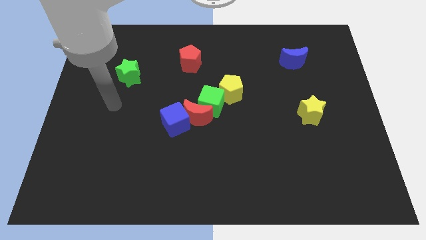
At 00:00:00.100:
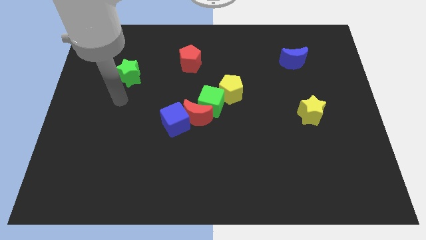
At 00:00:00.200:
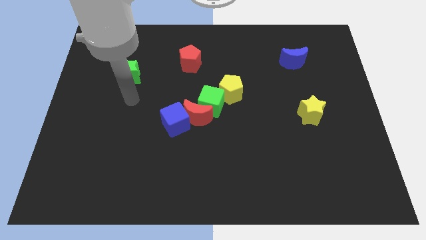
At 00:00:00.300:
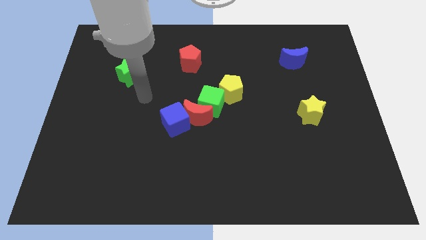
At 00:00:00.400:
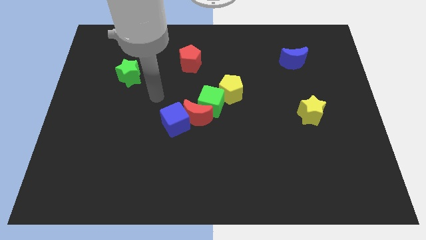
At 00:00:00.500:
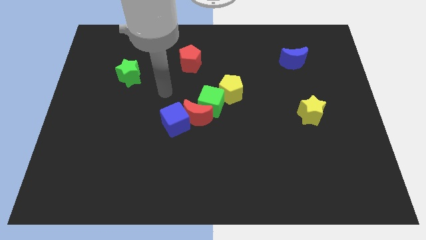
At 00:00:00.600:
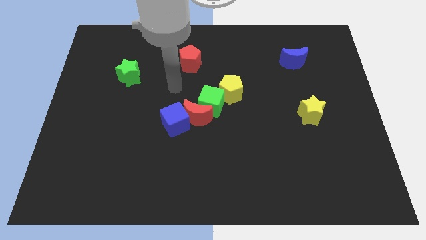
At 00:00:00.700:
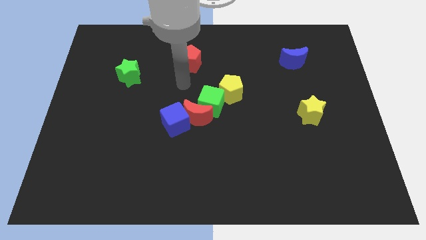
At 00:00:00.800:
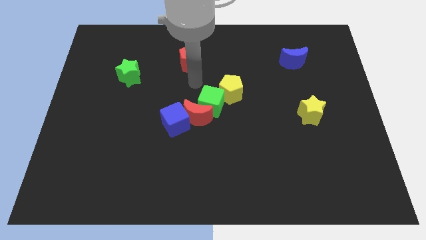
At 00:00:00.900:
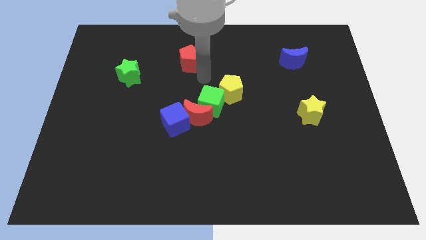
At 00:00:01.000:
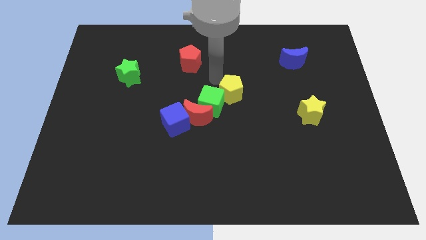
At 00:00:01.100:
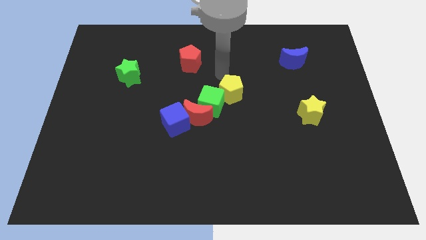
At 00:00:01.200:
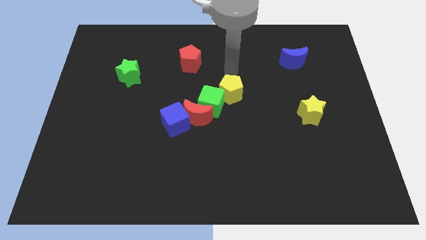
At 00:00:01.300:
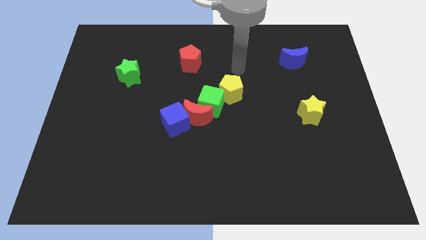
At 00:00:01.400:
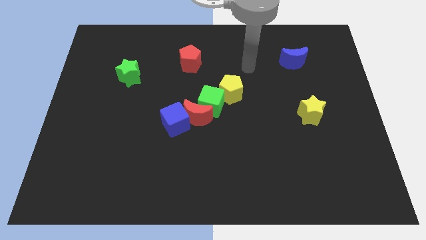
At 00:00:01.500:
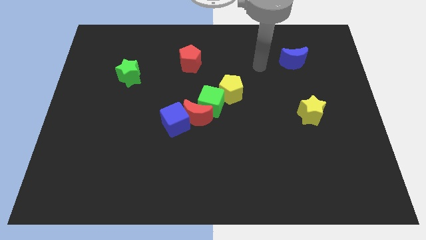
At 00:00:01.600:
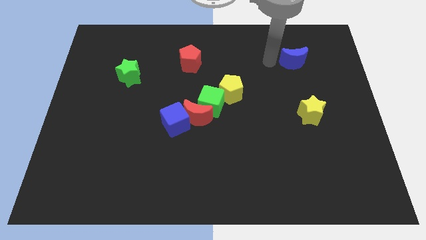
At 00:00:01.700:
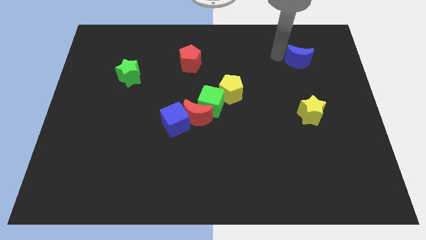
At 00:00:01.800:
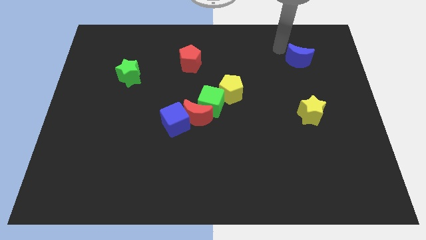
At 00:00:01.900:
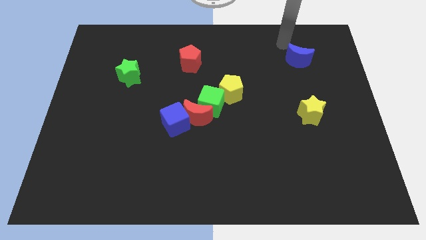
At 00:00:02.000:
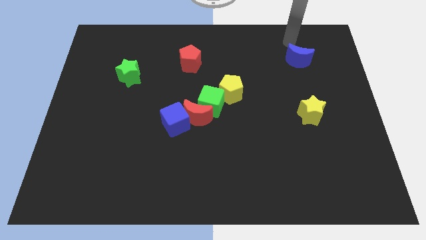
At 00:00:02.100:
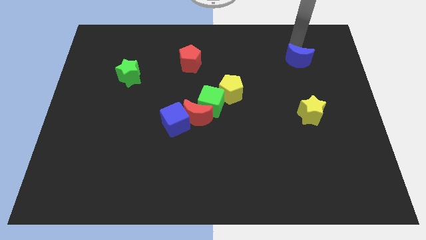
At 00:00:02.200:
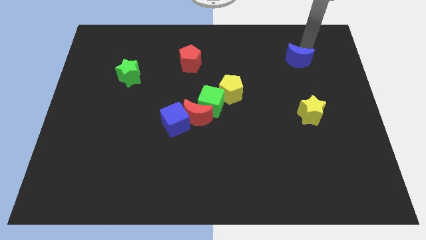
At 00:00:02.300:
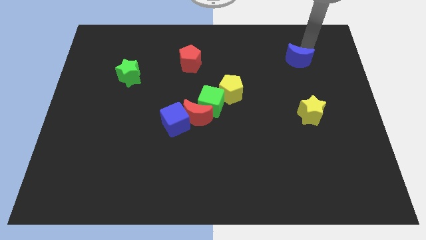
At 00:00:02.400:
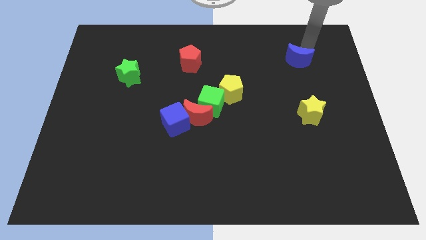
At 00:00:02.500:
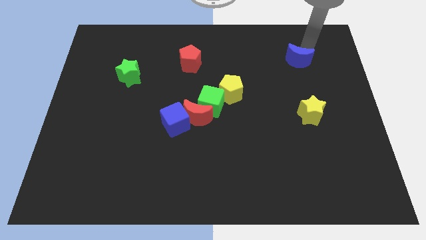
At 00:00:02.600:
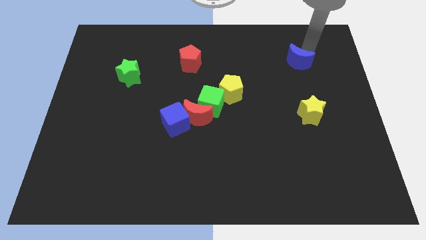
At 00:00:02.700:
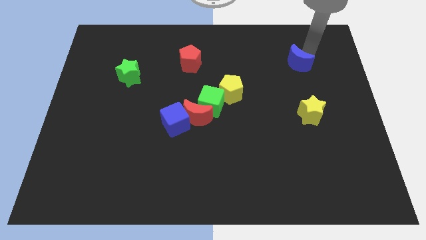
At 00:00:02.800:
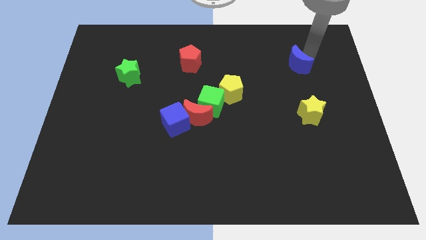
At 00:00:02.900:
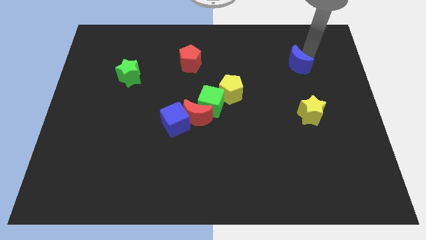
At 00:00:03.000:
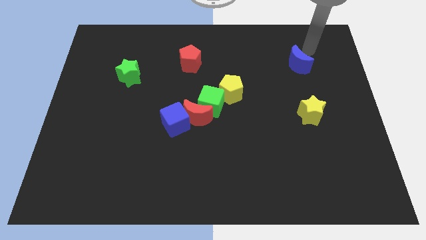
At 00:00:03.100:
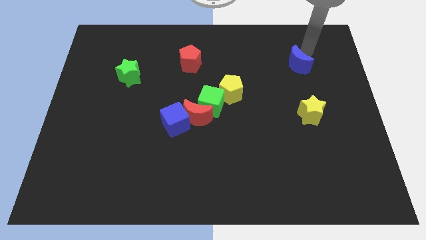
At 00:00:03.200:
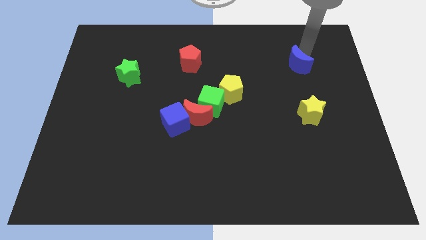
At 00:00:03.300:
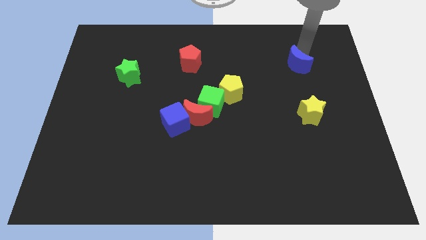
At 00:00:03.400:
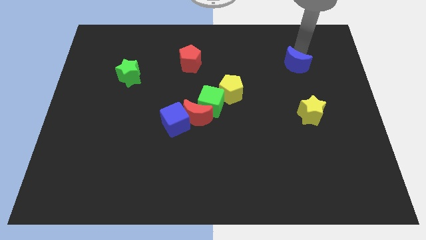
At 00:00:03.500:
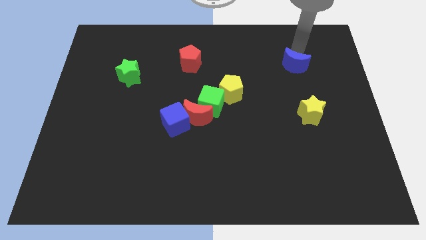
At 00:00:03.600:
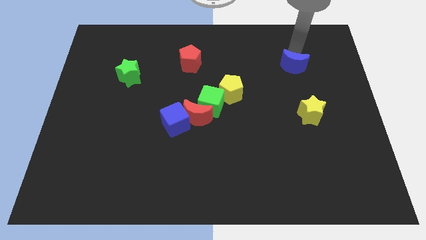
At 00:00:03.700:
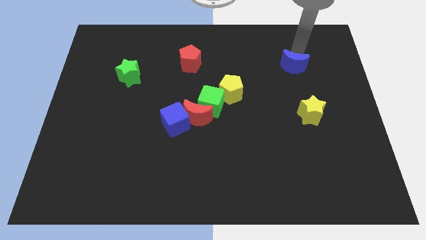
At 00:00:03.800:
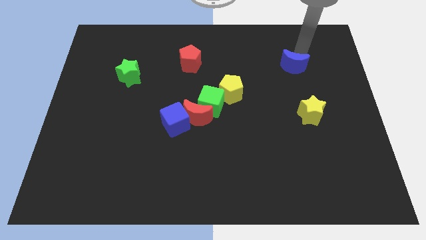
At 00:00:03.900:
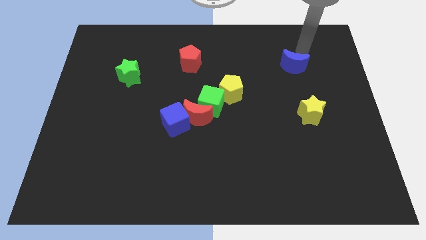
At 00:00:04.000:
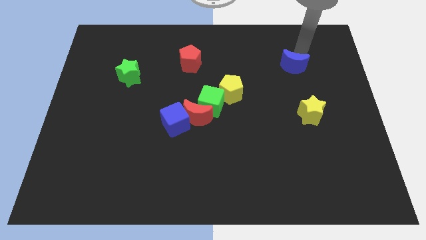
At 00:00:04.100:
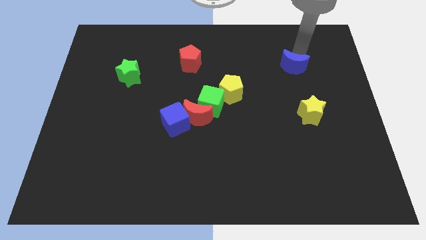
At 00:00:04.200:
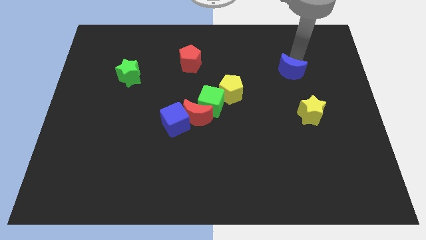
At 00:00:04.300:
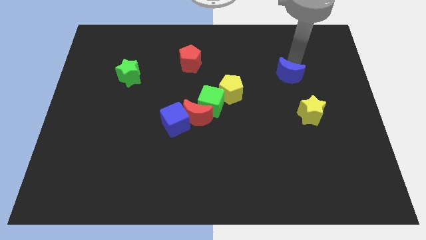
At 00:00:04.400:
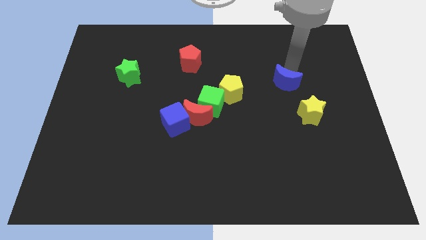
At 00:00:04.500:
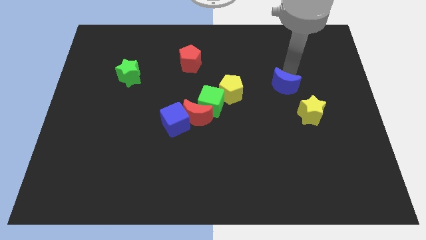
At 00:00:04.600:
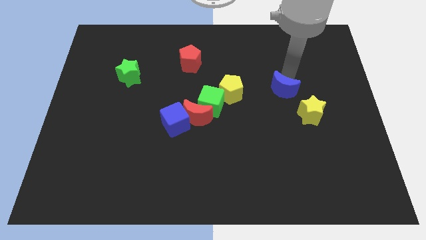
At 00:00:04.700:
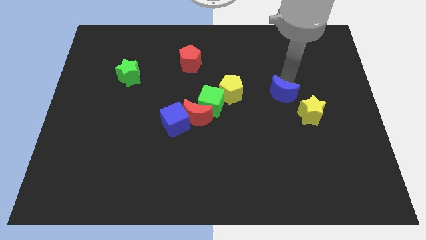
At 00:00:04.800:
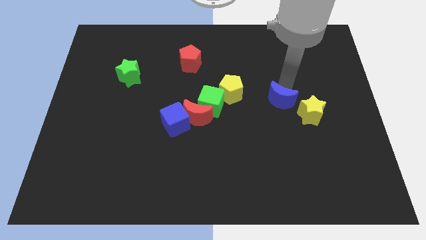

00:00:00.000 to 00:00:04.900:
put the blue moon to the left side of the yellow star

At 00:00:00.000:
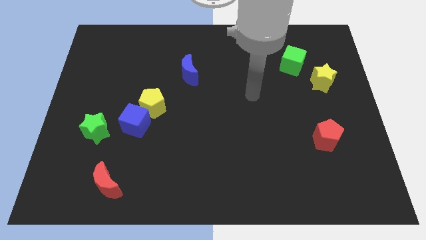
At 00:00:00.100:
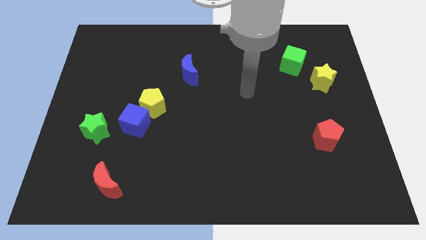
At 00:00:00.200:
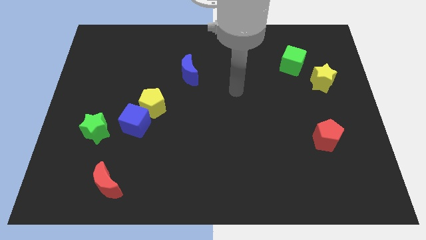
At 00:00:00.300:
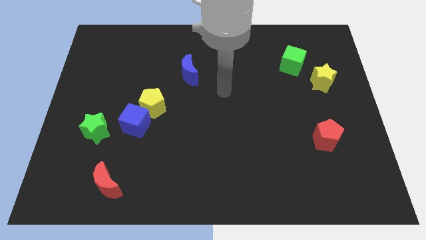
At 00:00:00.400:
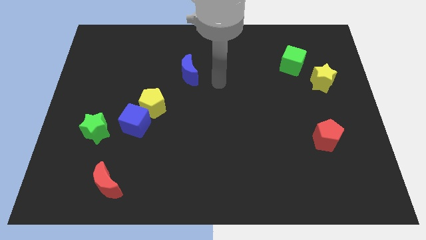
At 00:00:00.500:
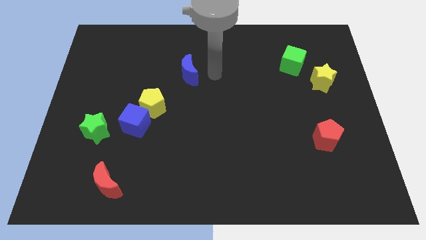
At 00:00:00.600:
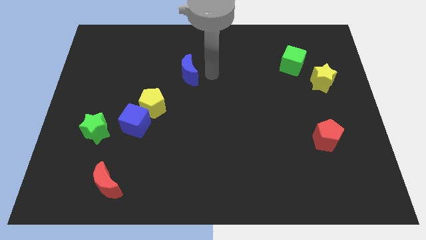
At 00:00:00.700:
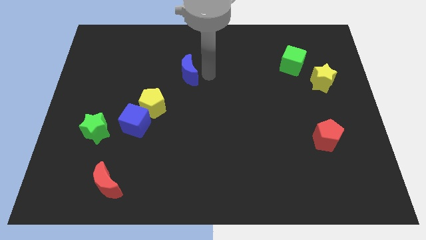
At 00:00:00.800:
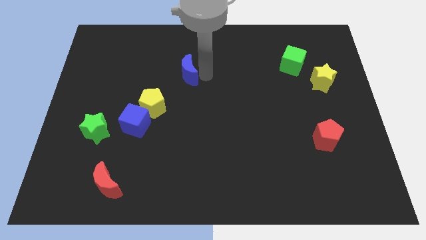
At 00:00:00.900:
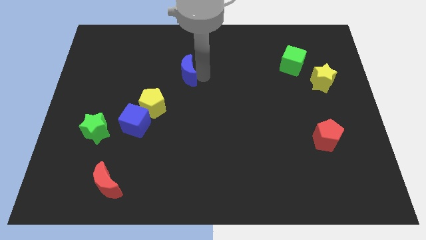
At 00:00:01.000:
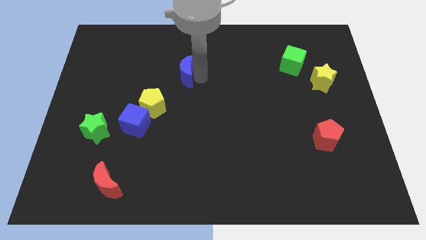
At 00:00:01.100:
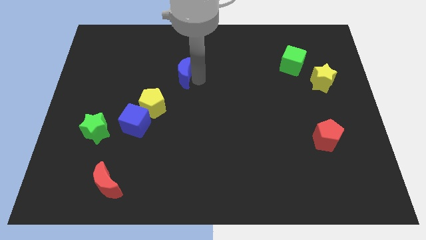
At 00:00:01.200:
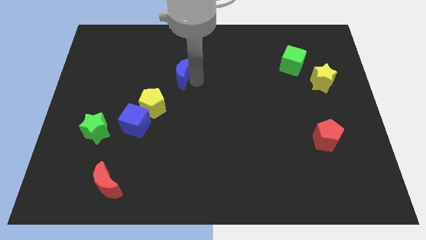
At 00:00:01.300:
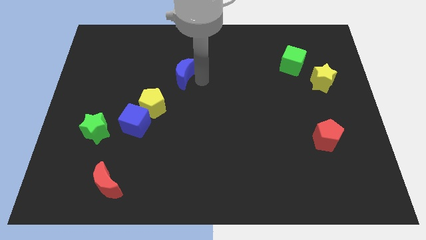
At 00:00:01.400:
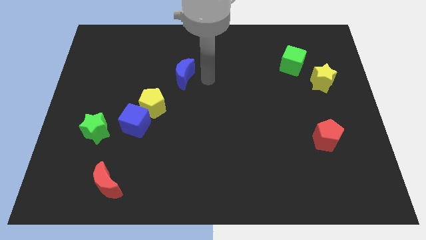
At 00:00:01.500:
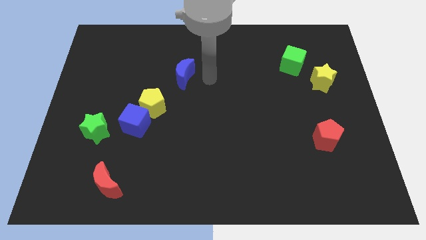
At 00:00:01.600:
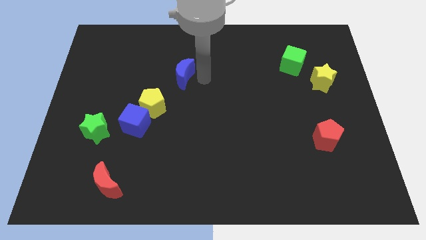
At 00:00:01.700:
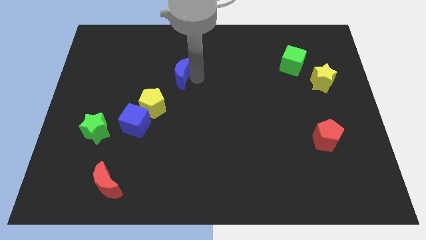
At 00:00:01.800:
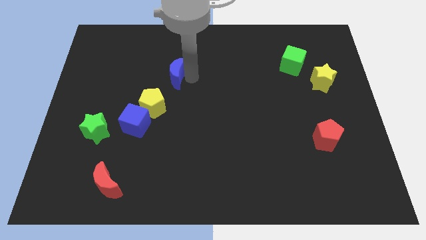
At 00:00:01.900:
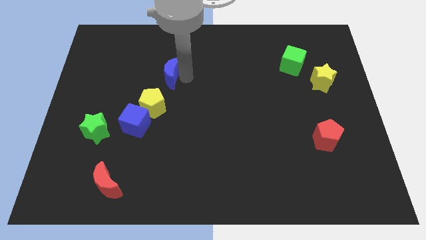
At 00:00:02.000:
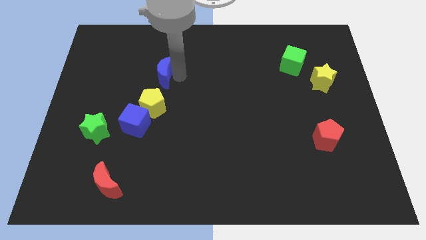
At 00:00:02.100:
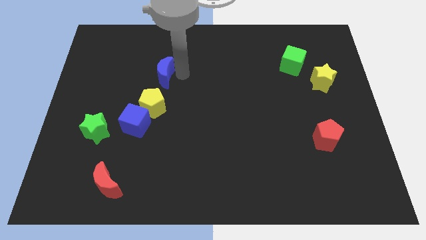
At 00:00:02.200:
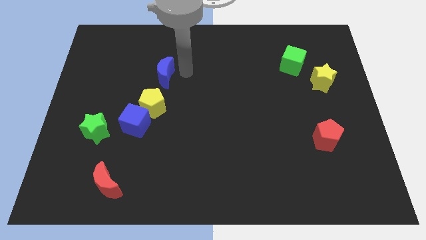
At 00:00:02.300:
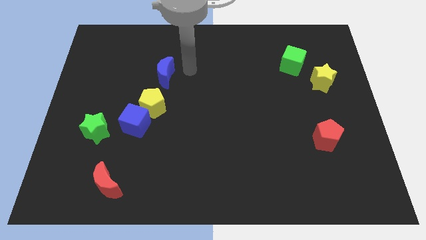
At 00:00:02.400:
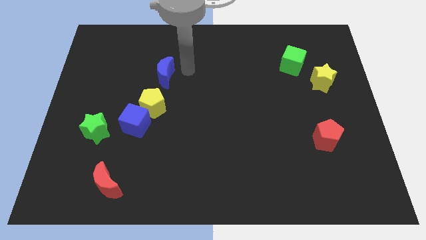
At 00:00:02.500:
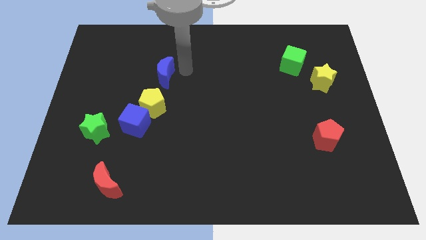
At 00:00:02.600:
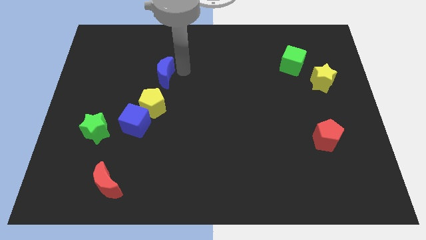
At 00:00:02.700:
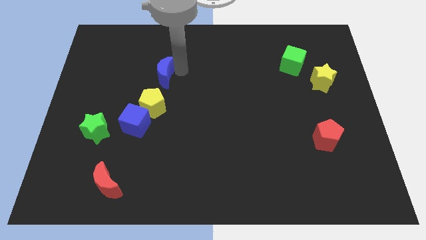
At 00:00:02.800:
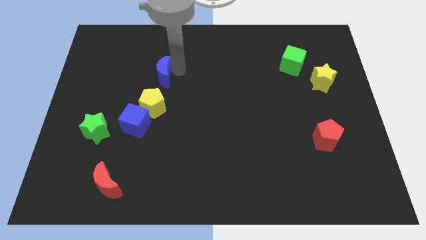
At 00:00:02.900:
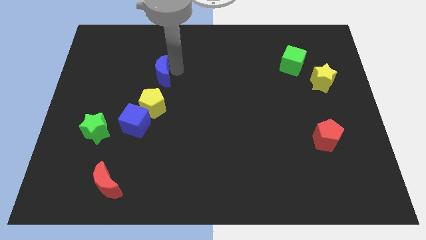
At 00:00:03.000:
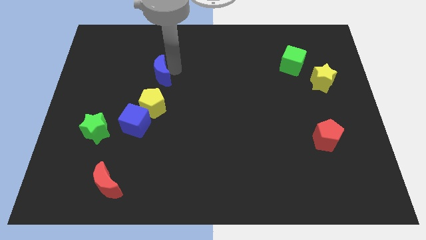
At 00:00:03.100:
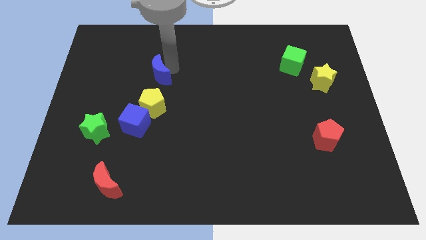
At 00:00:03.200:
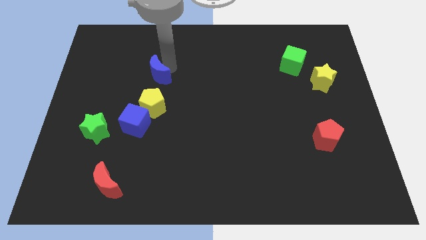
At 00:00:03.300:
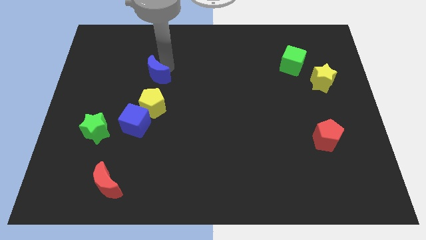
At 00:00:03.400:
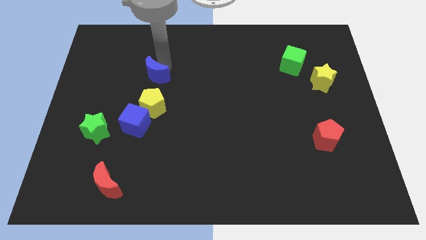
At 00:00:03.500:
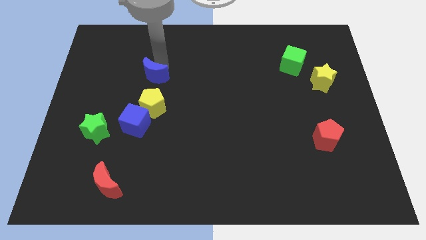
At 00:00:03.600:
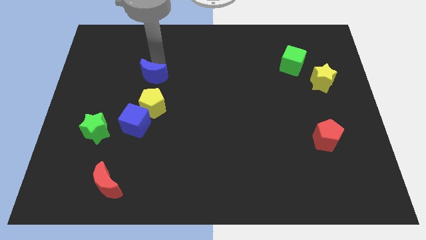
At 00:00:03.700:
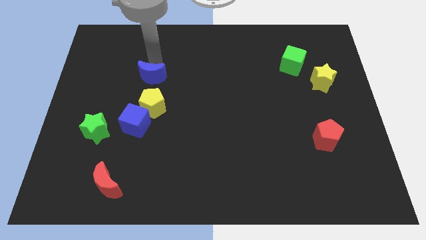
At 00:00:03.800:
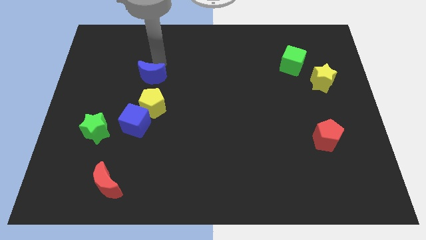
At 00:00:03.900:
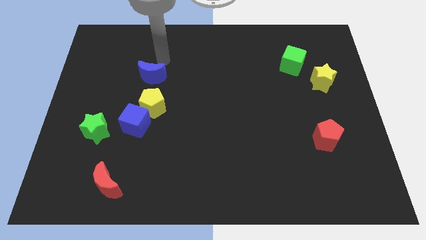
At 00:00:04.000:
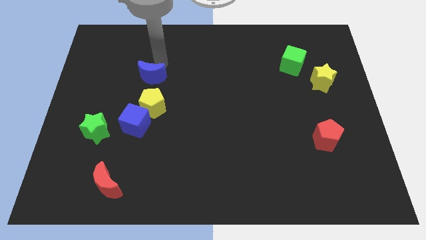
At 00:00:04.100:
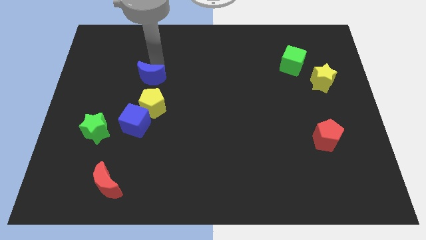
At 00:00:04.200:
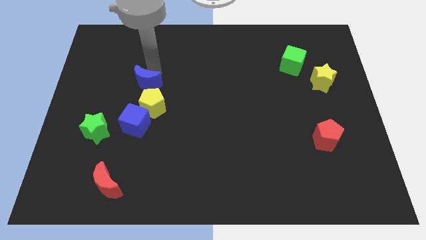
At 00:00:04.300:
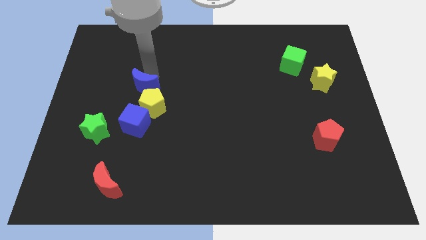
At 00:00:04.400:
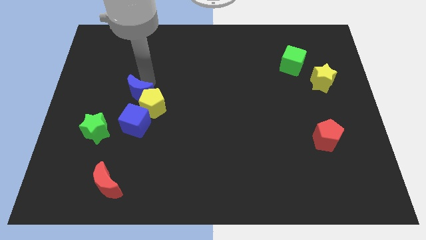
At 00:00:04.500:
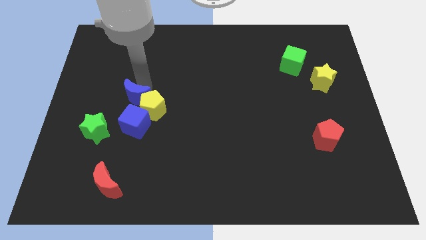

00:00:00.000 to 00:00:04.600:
put the blue moon to the top right of the green star
